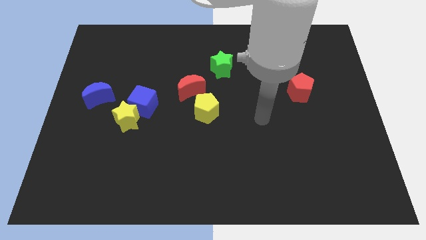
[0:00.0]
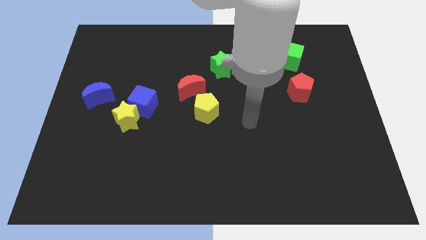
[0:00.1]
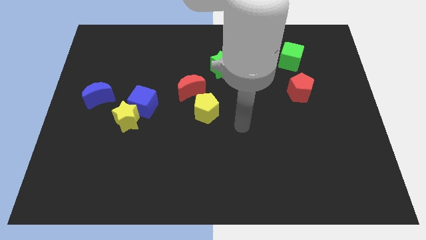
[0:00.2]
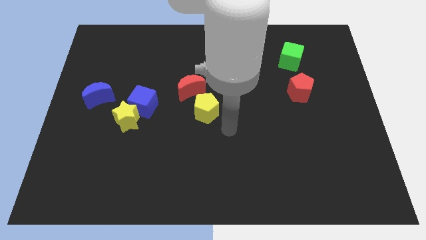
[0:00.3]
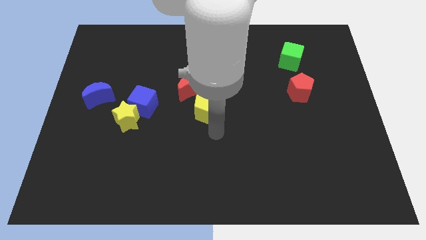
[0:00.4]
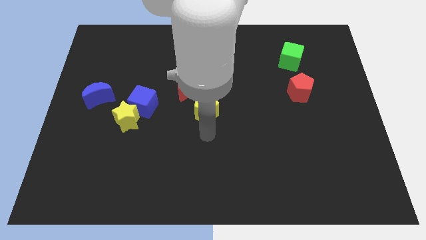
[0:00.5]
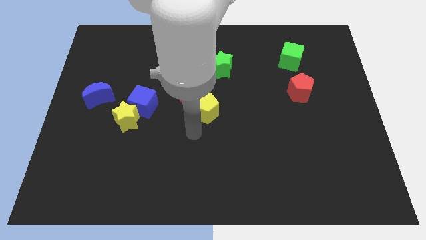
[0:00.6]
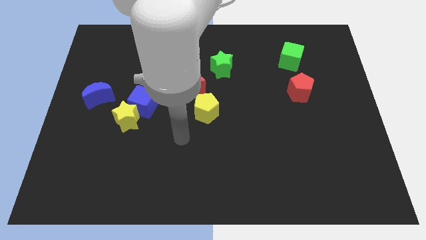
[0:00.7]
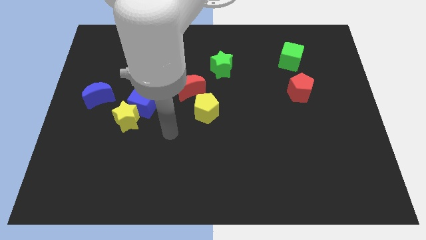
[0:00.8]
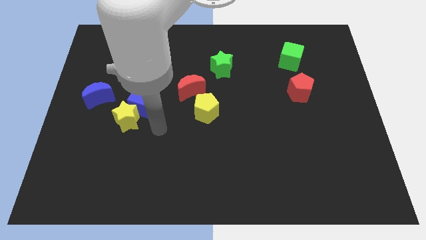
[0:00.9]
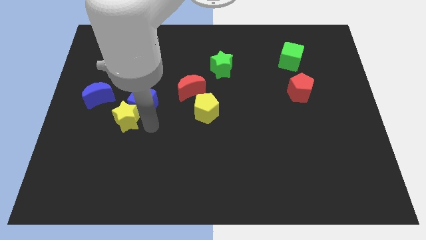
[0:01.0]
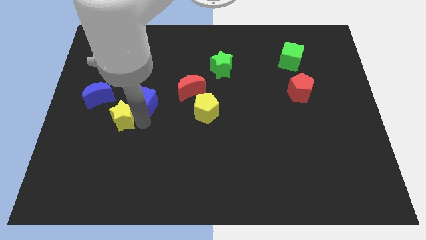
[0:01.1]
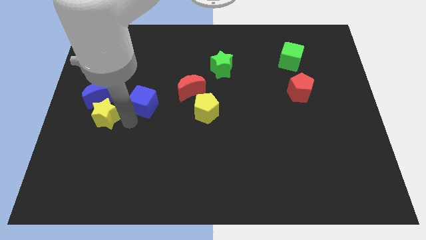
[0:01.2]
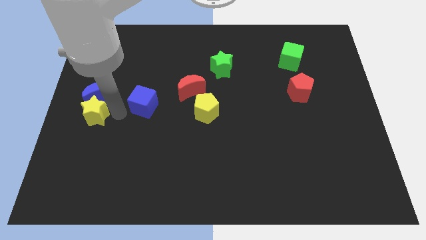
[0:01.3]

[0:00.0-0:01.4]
pull the blue cube apart from the yellow star

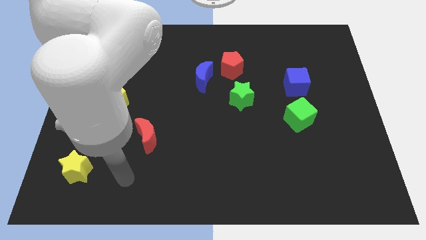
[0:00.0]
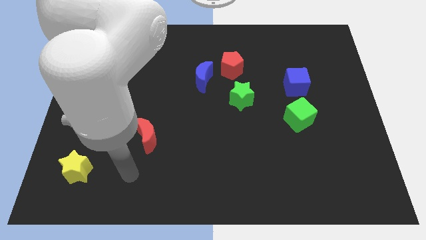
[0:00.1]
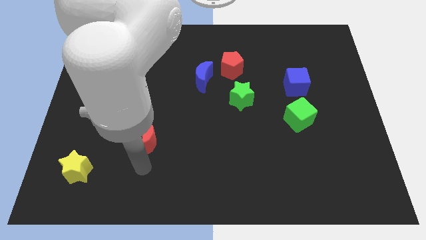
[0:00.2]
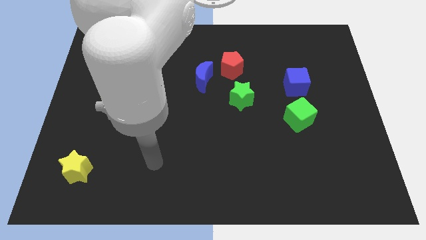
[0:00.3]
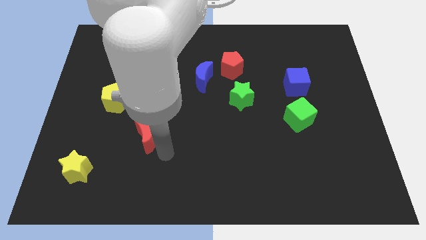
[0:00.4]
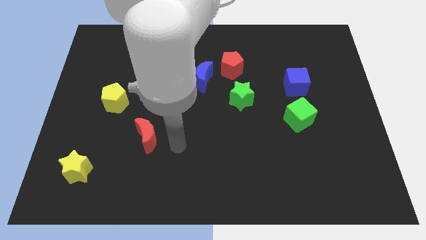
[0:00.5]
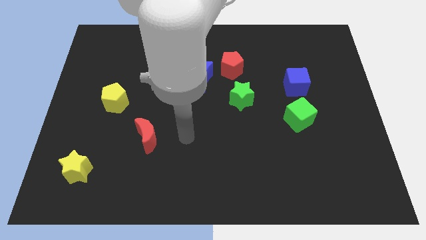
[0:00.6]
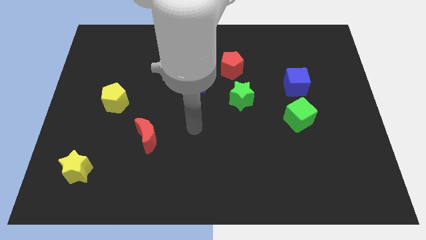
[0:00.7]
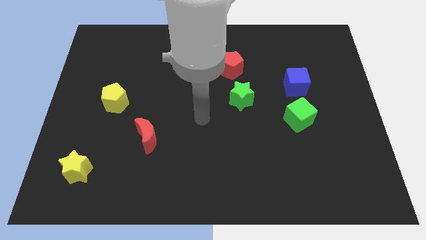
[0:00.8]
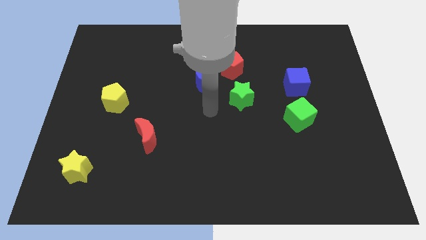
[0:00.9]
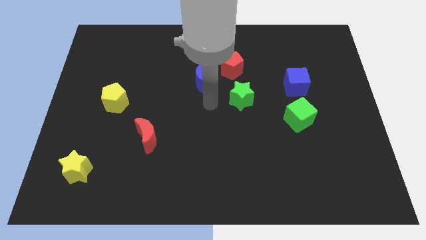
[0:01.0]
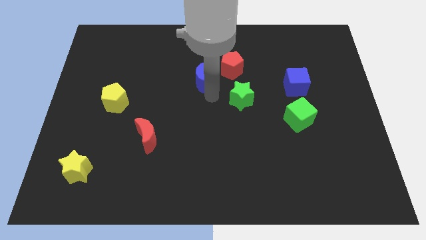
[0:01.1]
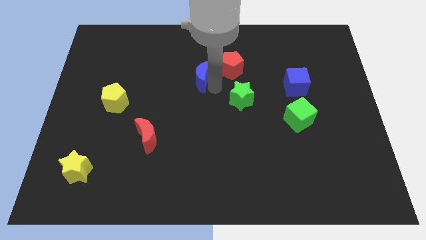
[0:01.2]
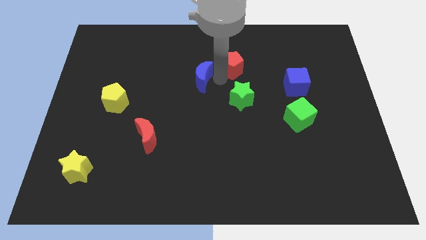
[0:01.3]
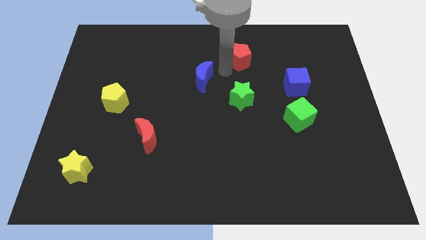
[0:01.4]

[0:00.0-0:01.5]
pull the blue moon apart from the red pentagon

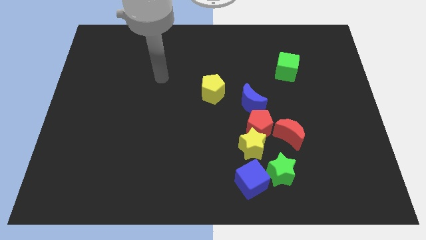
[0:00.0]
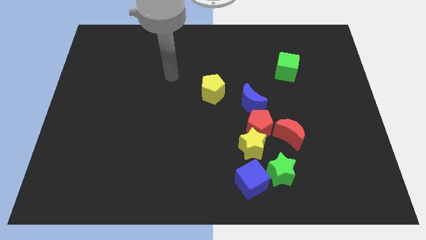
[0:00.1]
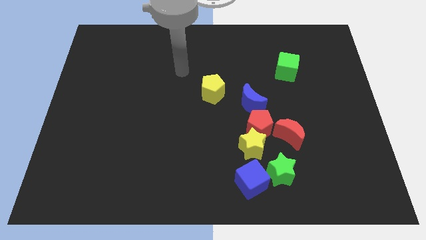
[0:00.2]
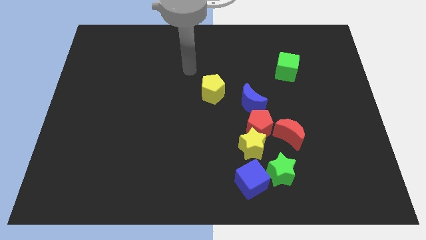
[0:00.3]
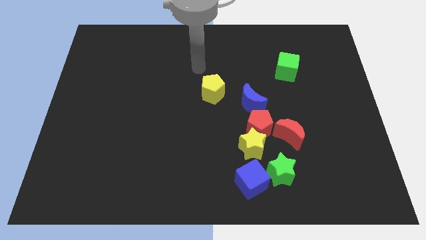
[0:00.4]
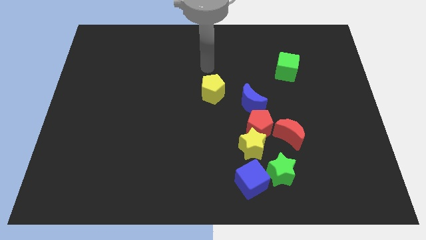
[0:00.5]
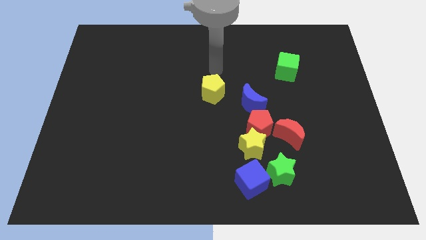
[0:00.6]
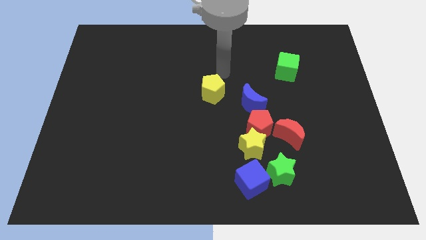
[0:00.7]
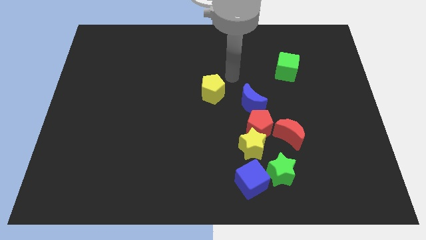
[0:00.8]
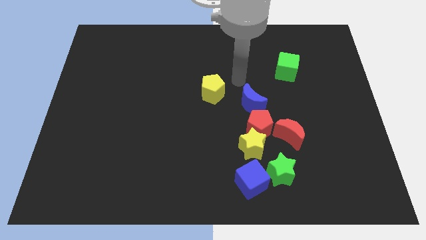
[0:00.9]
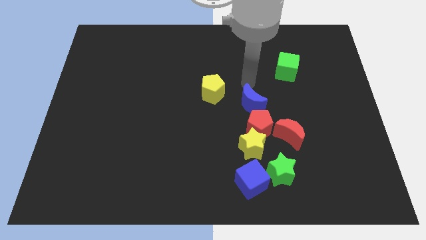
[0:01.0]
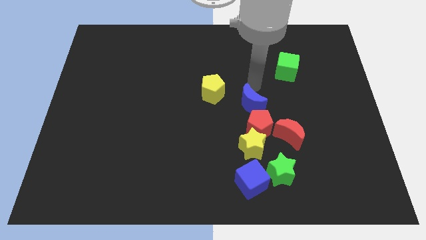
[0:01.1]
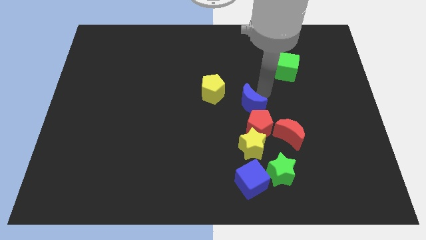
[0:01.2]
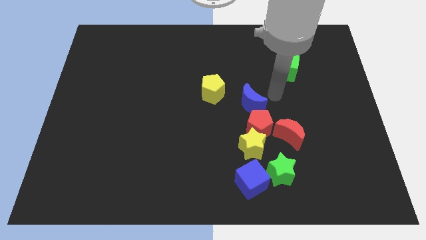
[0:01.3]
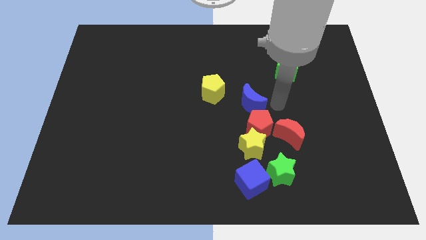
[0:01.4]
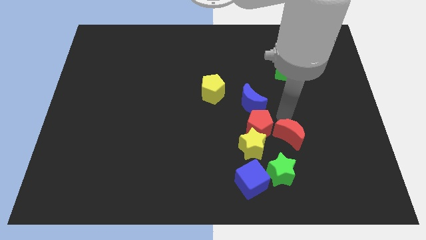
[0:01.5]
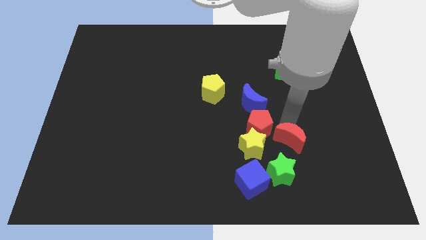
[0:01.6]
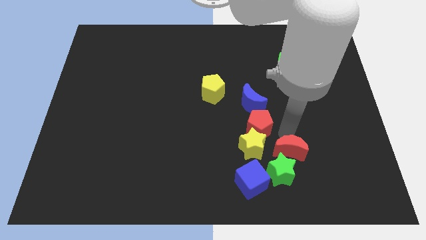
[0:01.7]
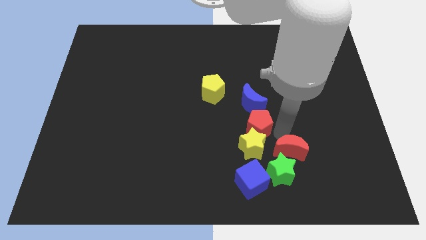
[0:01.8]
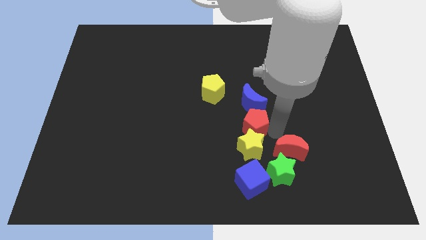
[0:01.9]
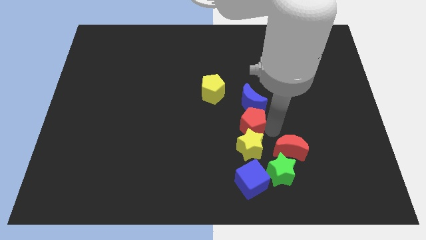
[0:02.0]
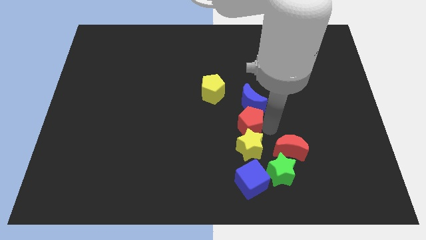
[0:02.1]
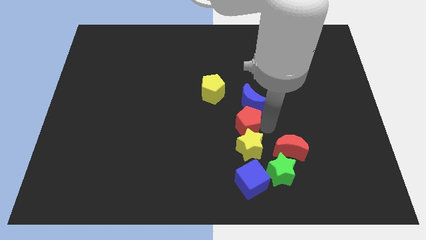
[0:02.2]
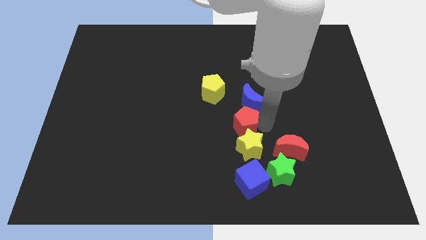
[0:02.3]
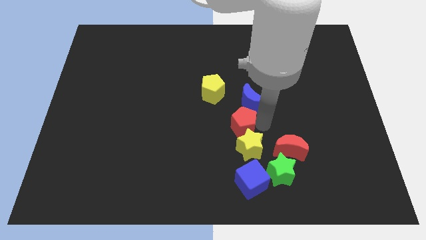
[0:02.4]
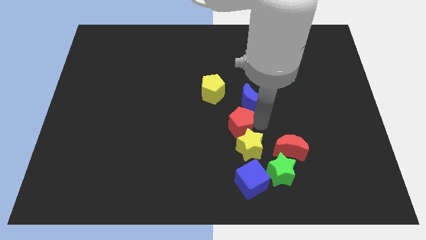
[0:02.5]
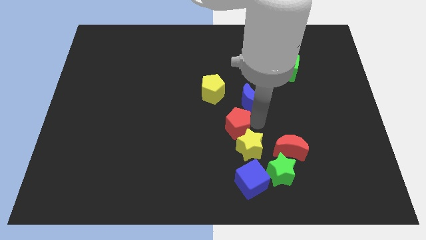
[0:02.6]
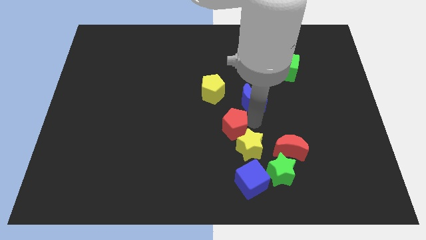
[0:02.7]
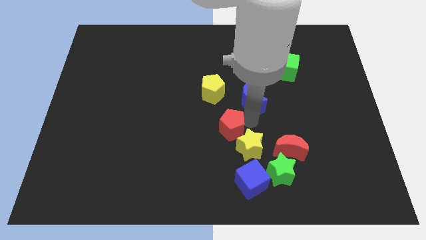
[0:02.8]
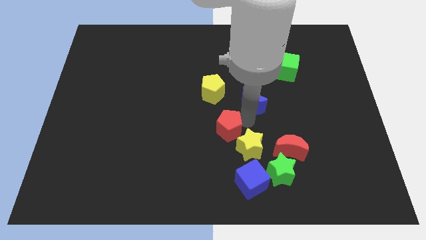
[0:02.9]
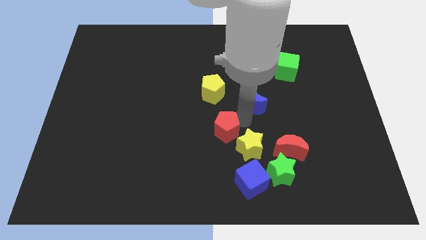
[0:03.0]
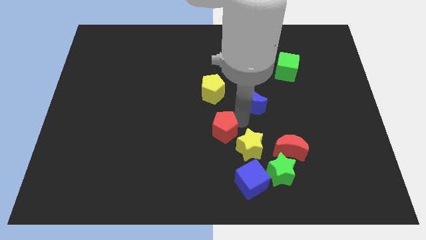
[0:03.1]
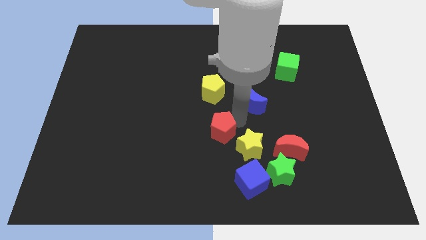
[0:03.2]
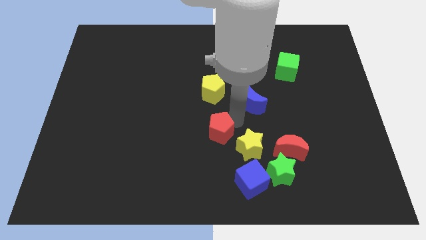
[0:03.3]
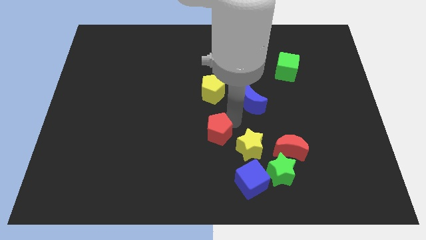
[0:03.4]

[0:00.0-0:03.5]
separate the red pentagon from the group

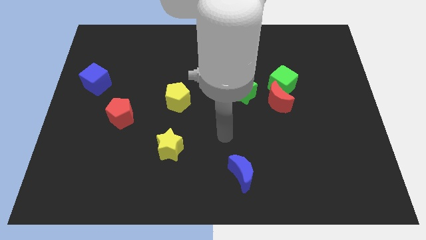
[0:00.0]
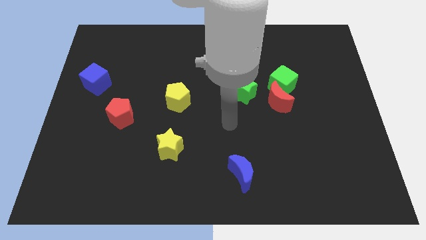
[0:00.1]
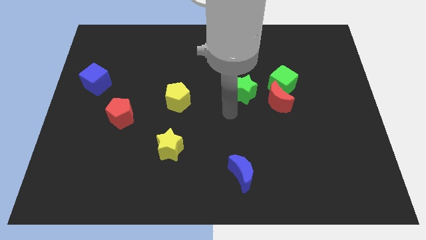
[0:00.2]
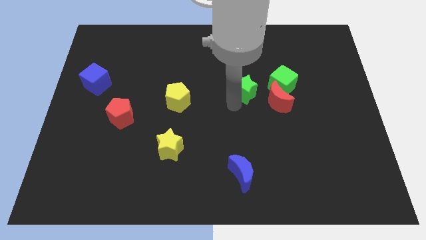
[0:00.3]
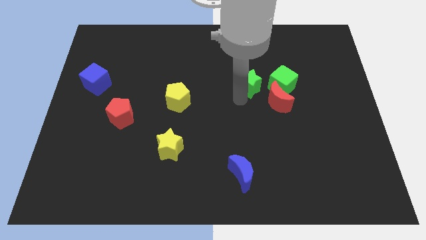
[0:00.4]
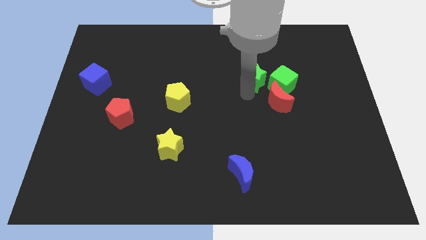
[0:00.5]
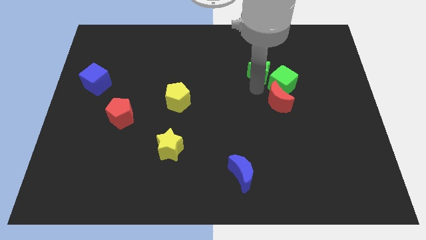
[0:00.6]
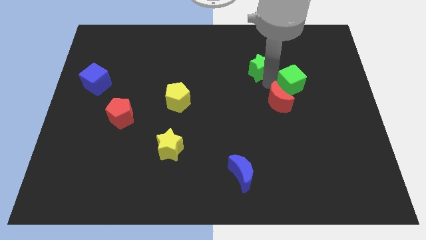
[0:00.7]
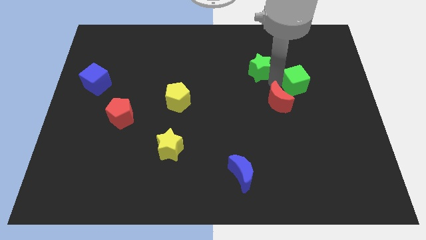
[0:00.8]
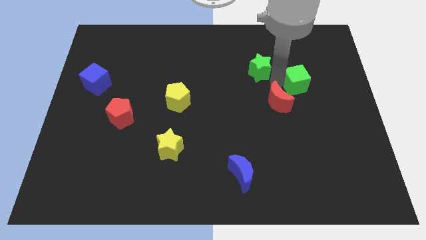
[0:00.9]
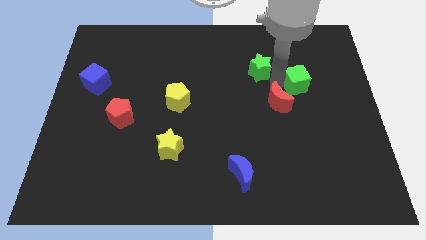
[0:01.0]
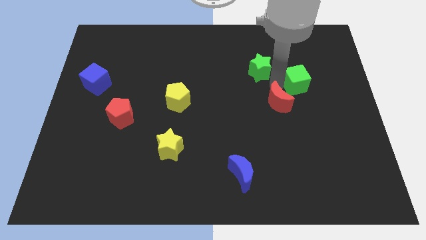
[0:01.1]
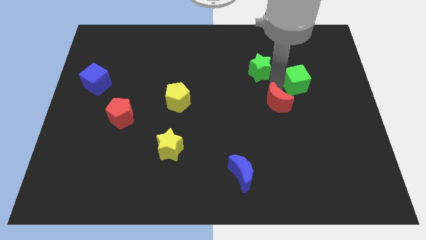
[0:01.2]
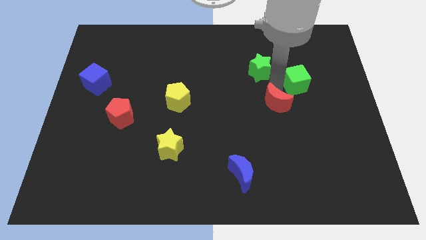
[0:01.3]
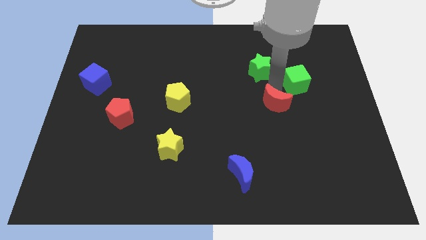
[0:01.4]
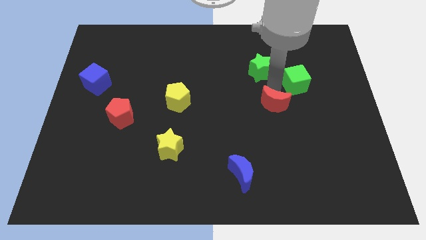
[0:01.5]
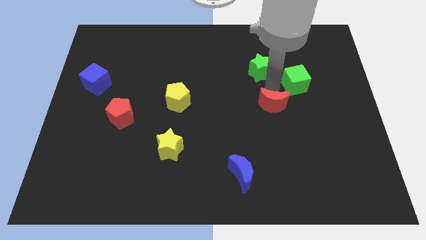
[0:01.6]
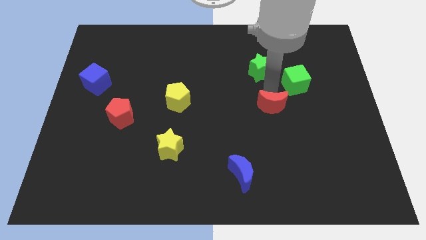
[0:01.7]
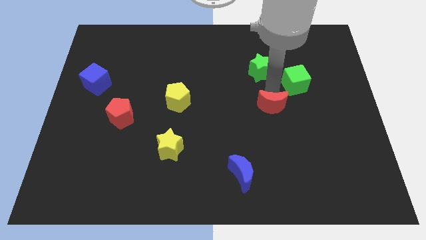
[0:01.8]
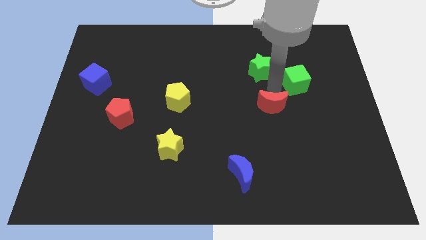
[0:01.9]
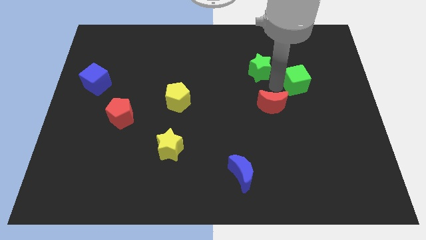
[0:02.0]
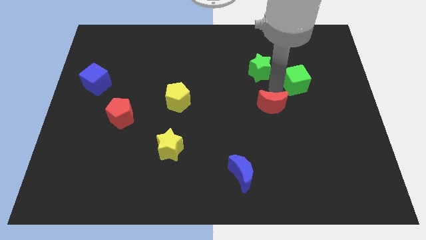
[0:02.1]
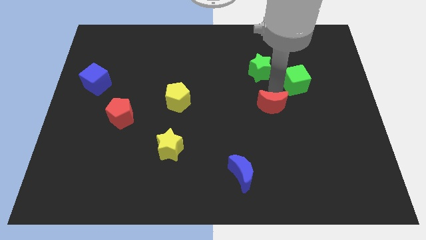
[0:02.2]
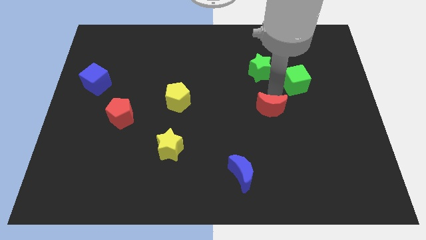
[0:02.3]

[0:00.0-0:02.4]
pull the red moon apart from the green cube and green star

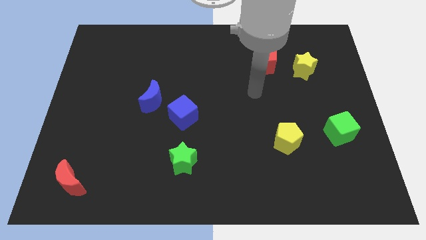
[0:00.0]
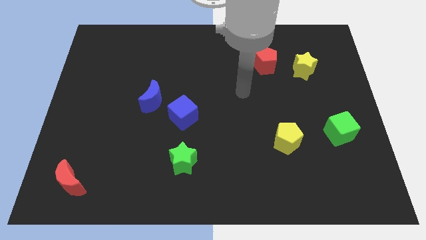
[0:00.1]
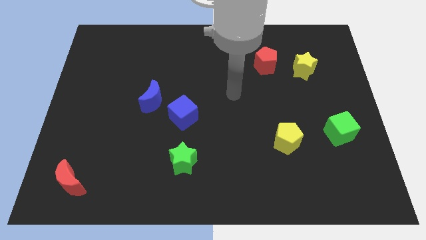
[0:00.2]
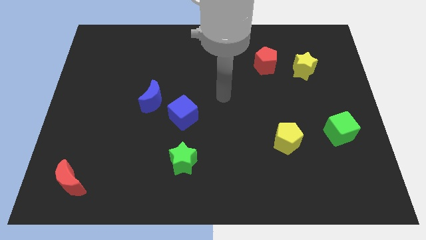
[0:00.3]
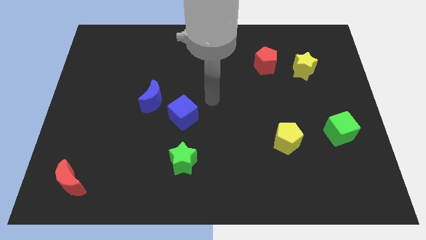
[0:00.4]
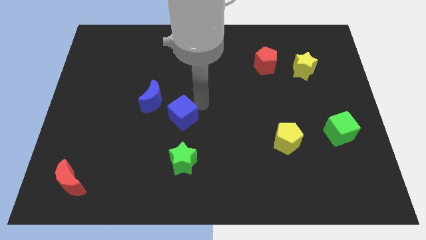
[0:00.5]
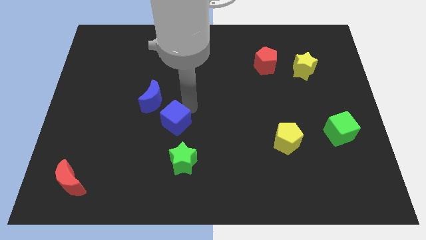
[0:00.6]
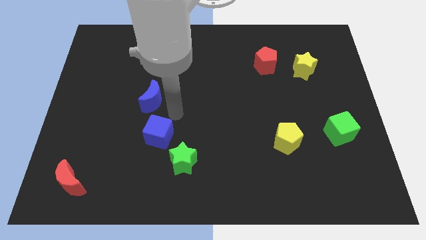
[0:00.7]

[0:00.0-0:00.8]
move the blue moon away from the blue cube
